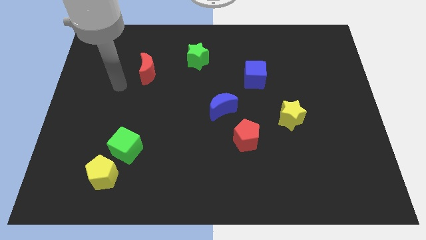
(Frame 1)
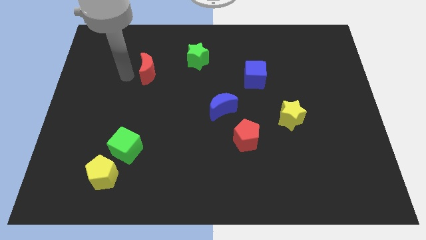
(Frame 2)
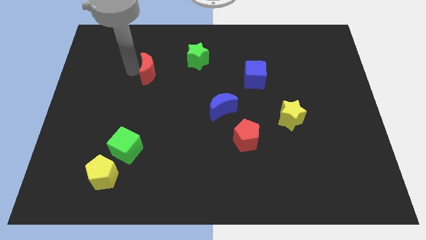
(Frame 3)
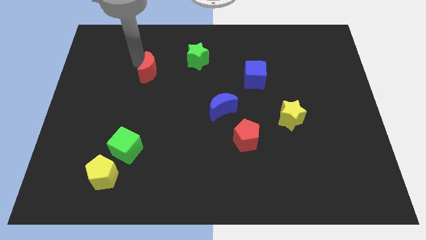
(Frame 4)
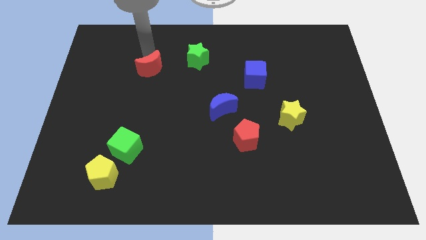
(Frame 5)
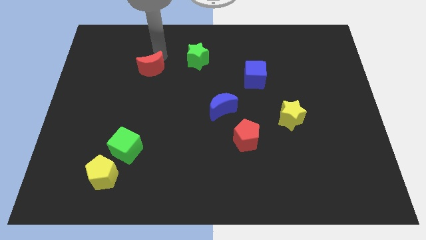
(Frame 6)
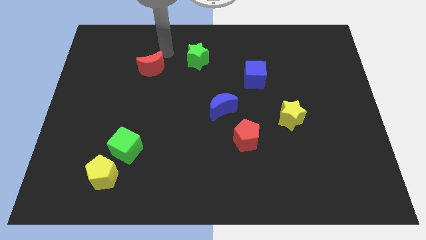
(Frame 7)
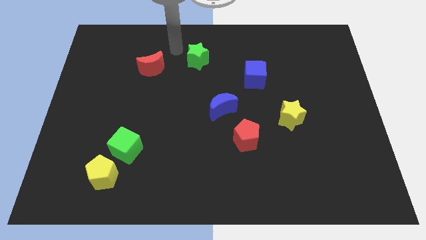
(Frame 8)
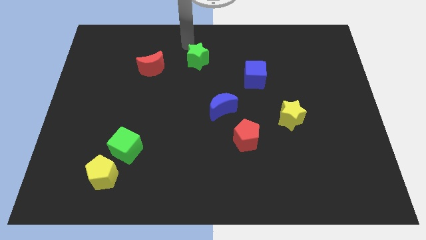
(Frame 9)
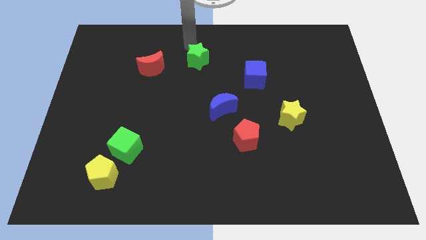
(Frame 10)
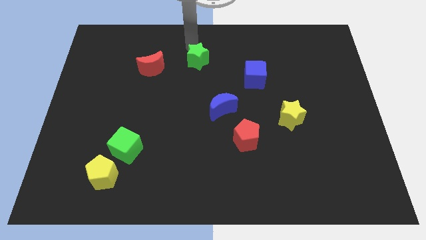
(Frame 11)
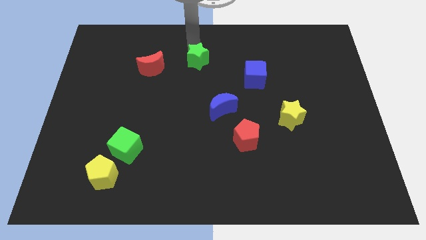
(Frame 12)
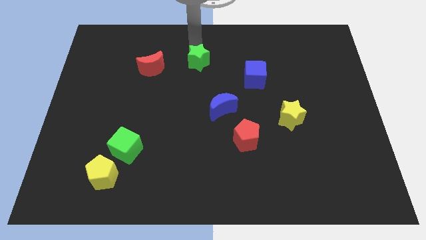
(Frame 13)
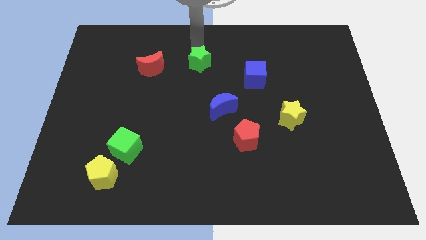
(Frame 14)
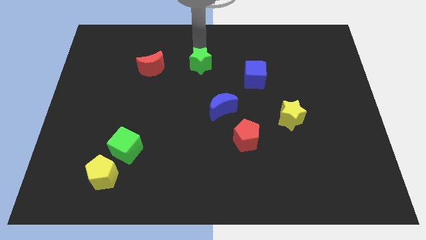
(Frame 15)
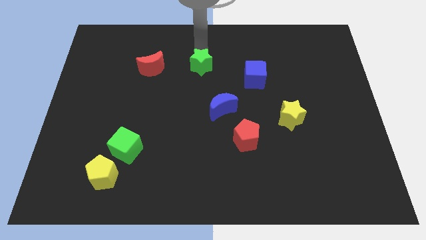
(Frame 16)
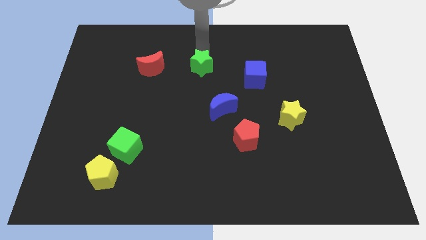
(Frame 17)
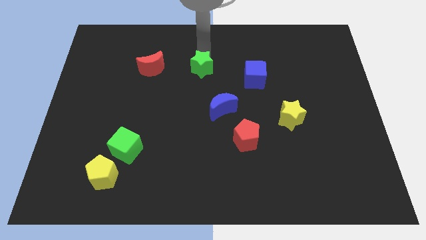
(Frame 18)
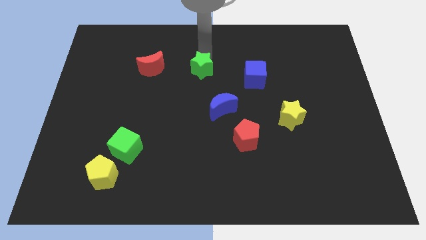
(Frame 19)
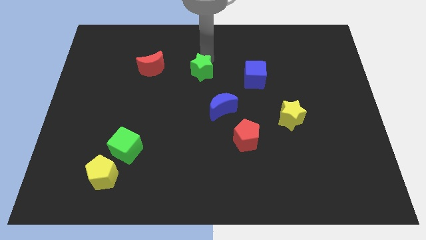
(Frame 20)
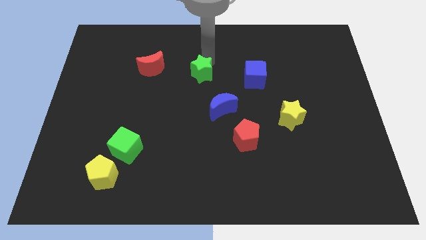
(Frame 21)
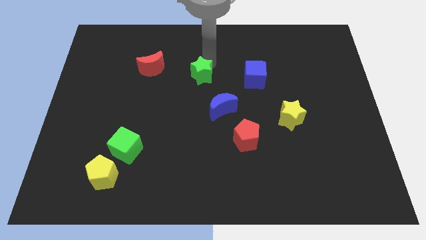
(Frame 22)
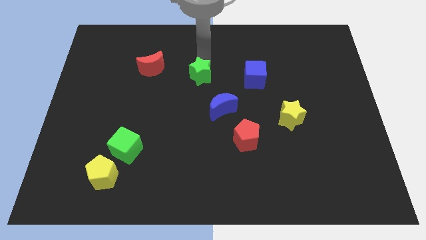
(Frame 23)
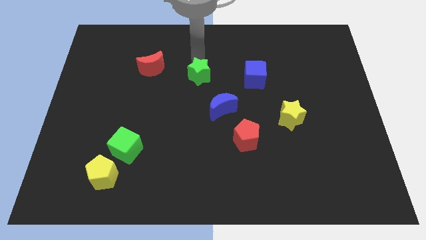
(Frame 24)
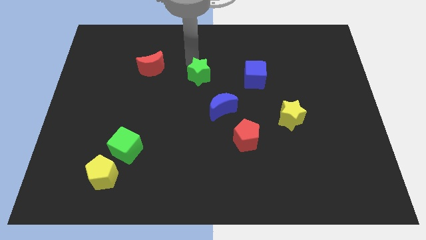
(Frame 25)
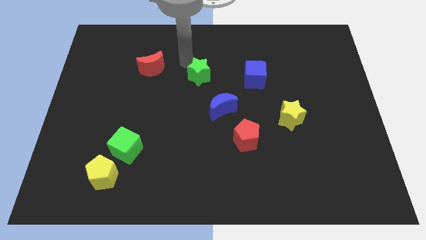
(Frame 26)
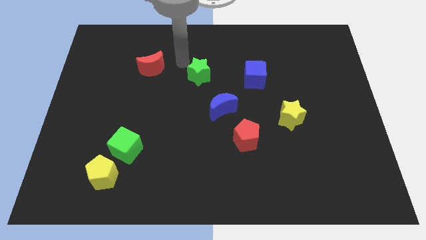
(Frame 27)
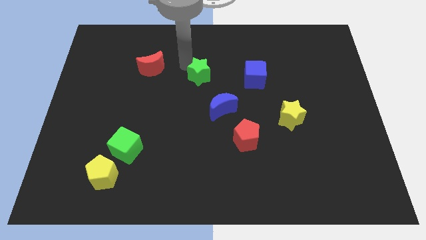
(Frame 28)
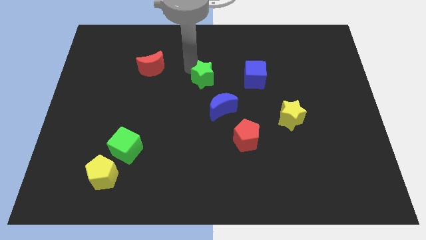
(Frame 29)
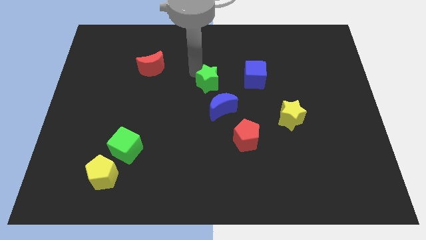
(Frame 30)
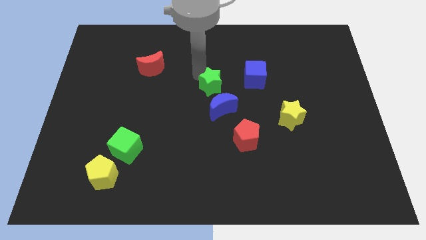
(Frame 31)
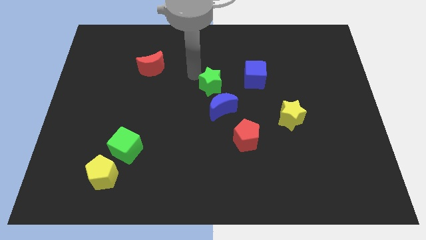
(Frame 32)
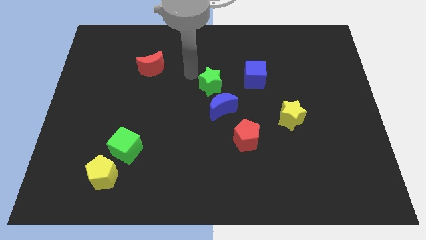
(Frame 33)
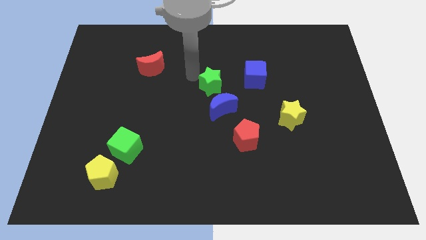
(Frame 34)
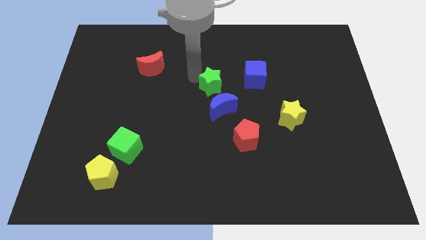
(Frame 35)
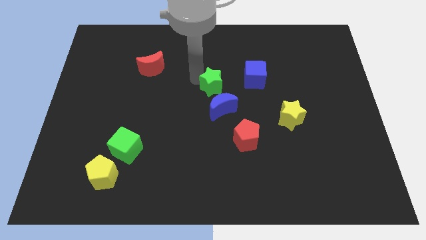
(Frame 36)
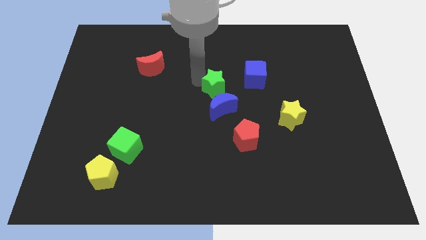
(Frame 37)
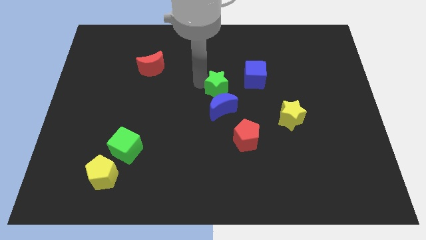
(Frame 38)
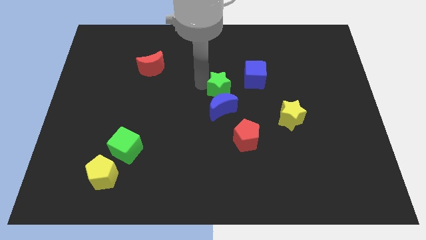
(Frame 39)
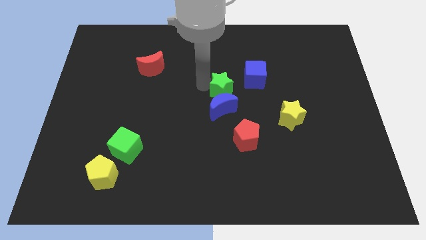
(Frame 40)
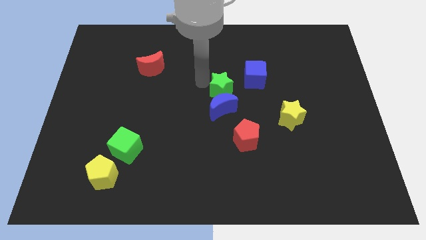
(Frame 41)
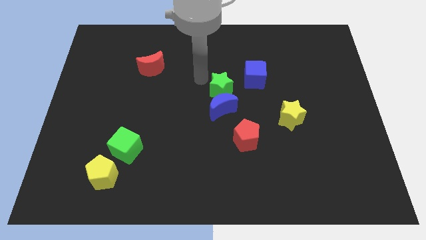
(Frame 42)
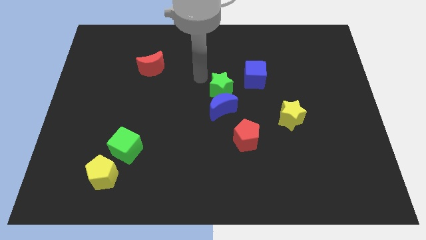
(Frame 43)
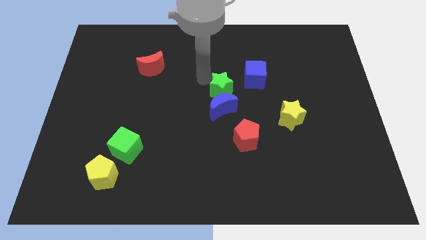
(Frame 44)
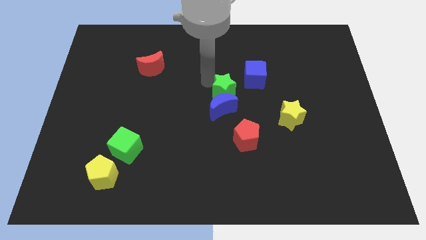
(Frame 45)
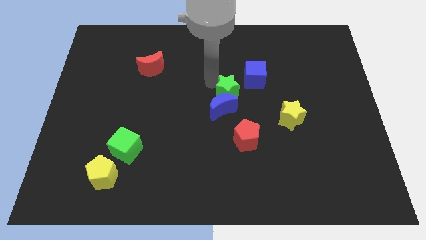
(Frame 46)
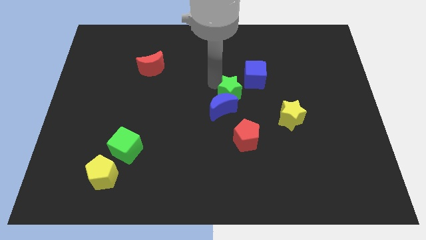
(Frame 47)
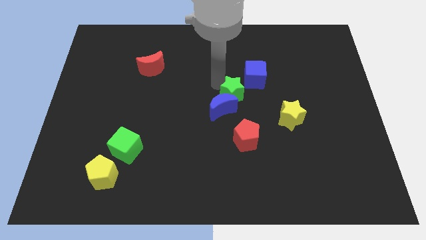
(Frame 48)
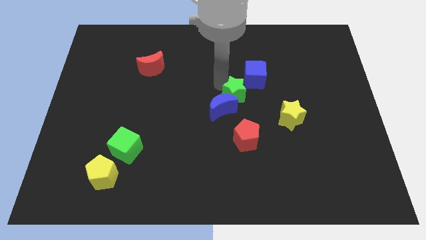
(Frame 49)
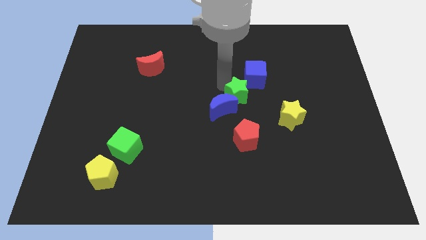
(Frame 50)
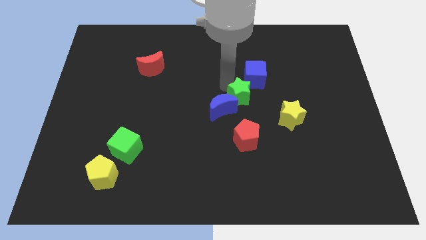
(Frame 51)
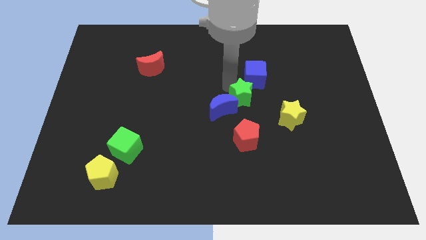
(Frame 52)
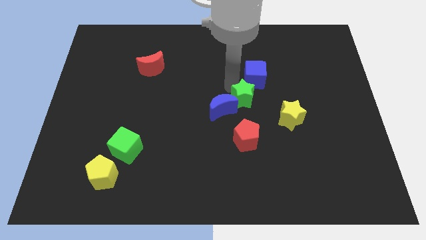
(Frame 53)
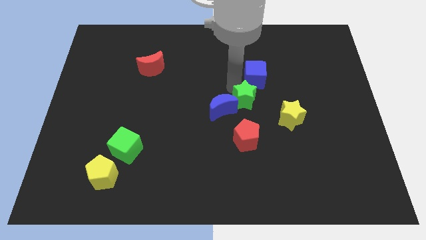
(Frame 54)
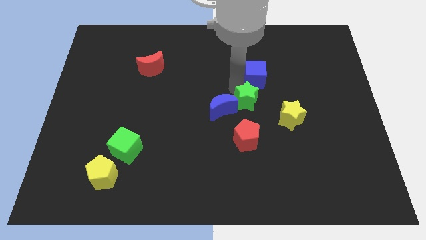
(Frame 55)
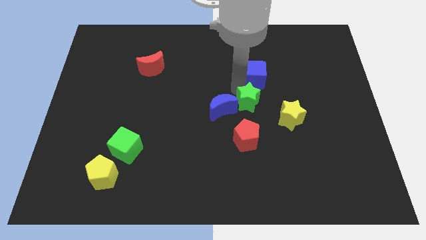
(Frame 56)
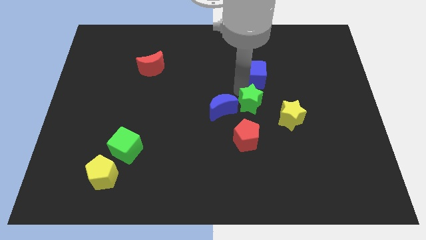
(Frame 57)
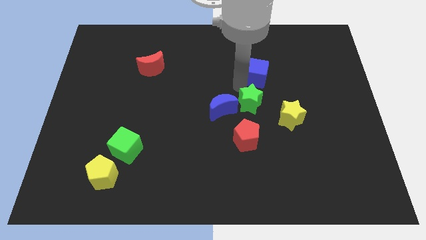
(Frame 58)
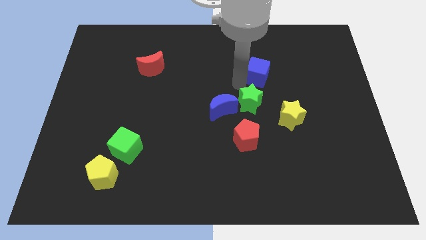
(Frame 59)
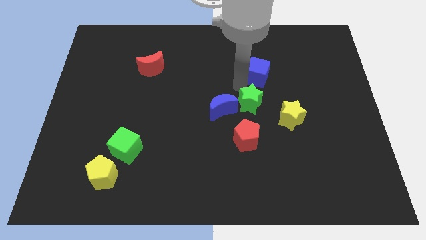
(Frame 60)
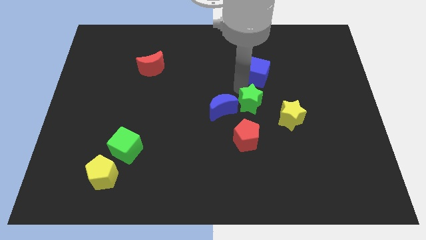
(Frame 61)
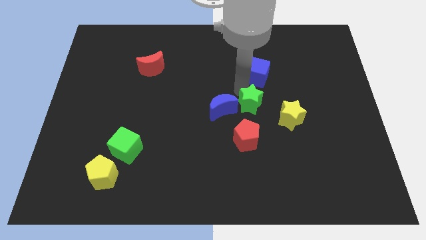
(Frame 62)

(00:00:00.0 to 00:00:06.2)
slide the green star down and then right

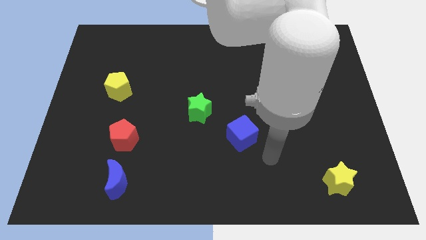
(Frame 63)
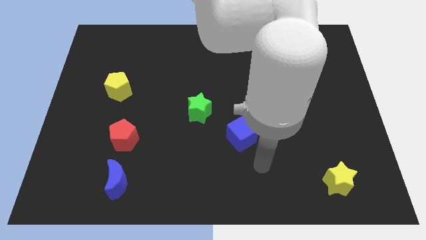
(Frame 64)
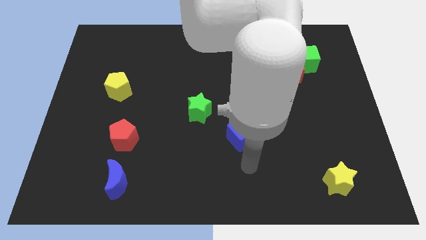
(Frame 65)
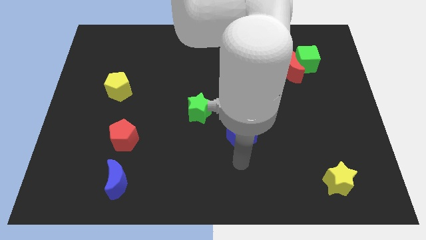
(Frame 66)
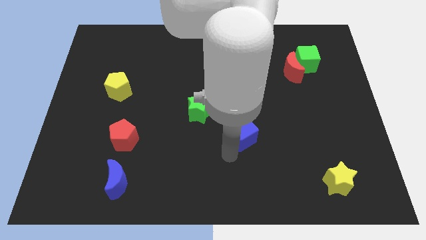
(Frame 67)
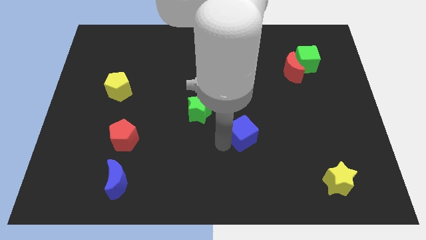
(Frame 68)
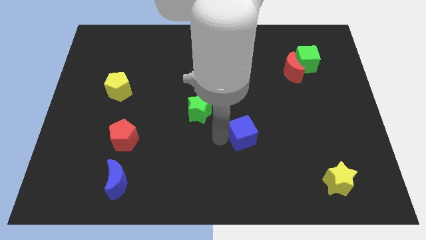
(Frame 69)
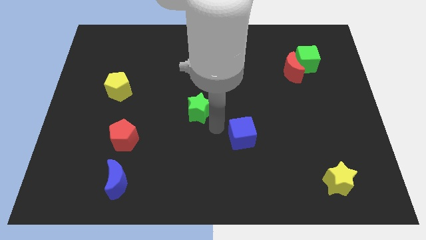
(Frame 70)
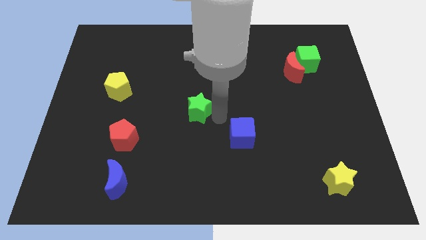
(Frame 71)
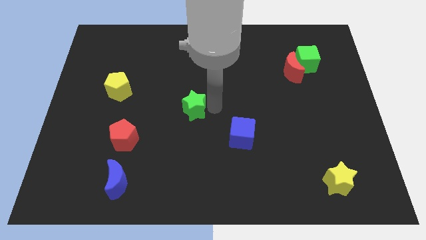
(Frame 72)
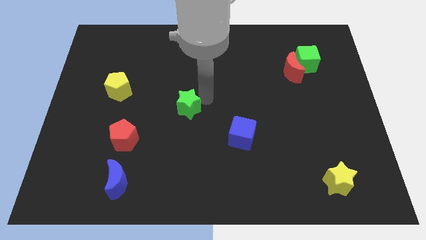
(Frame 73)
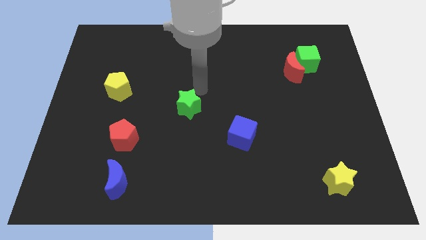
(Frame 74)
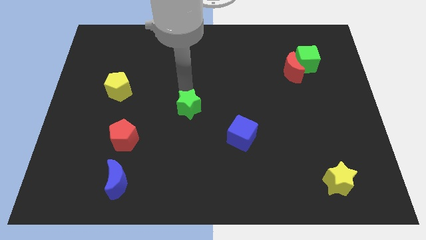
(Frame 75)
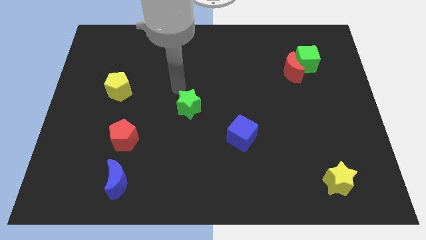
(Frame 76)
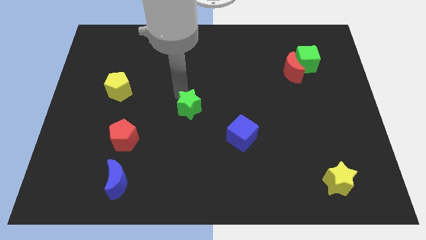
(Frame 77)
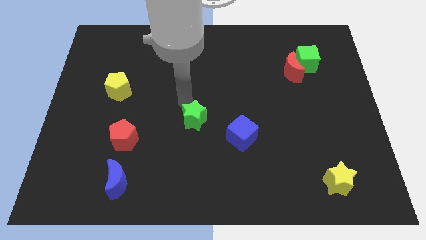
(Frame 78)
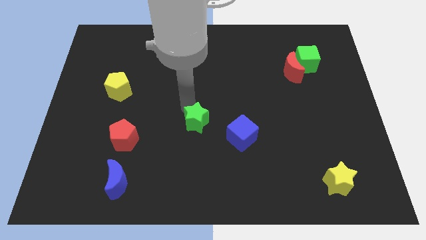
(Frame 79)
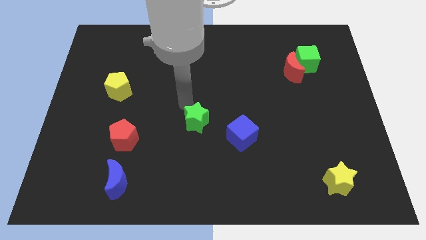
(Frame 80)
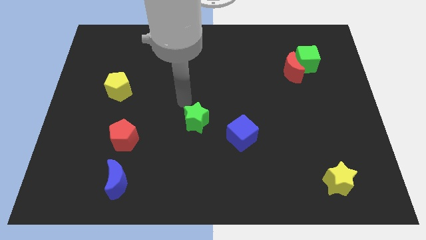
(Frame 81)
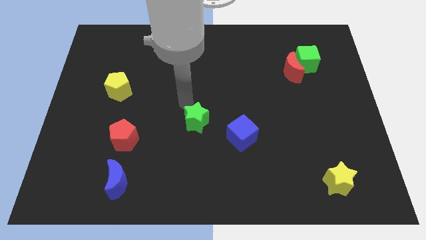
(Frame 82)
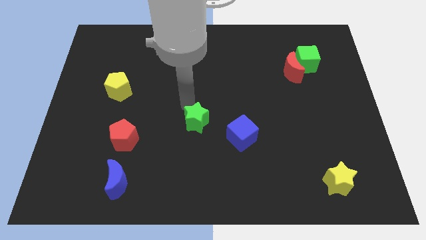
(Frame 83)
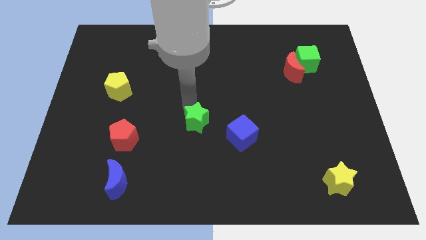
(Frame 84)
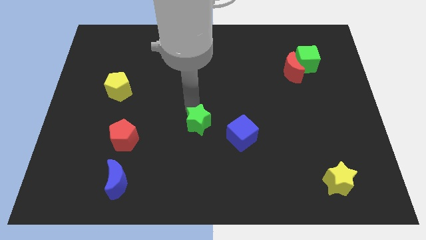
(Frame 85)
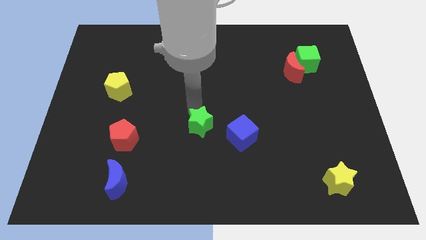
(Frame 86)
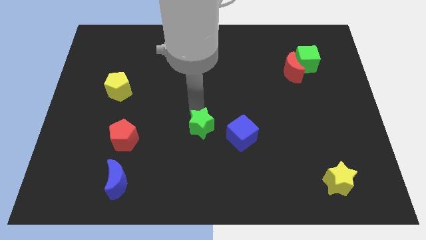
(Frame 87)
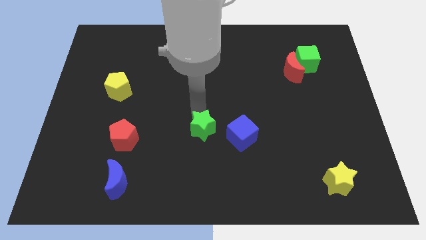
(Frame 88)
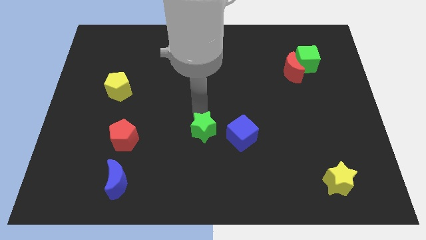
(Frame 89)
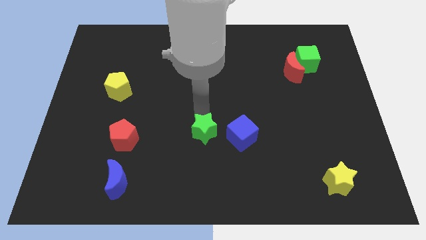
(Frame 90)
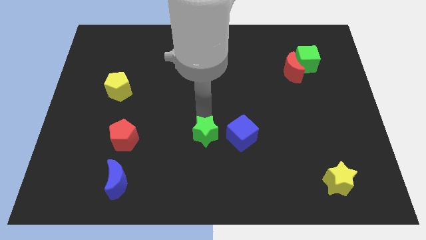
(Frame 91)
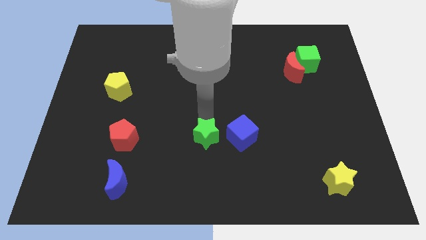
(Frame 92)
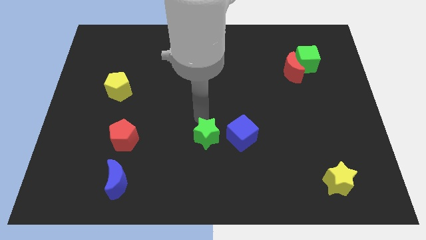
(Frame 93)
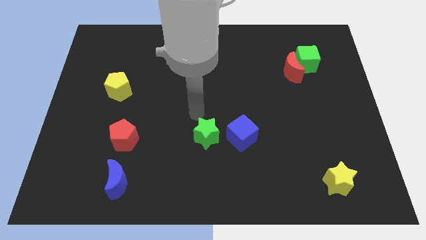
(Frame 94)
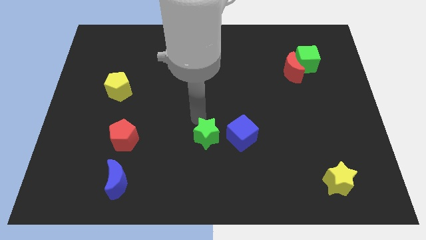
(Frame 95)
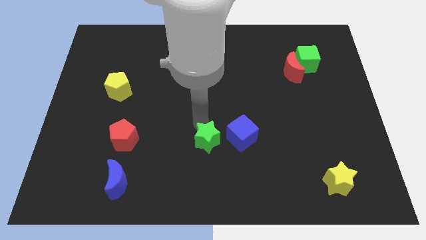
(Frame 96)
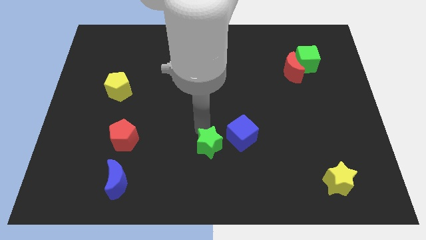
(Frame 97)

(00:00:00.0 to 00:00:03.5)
slightly push the green star down and then right
